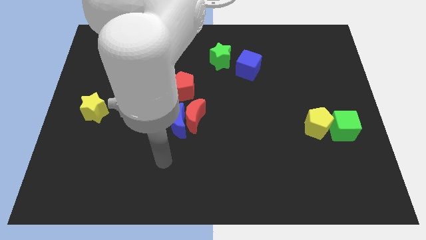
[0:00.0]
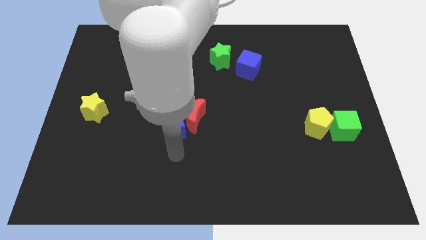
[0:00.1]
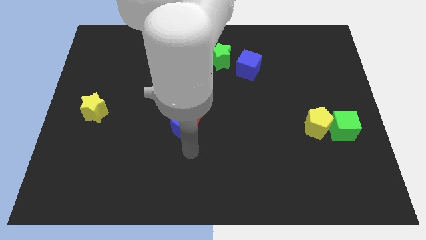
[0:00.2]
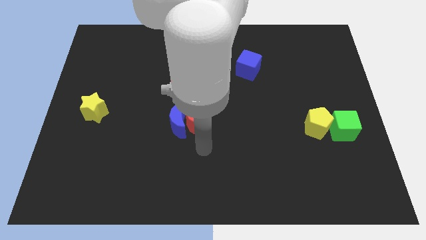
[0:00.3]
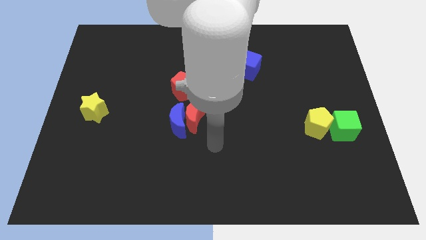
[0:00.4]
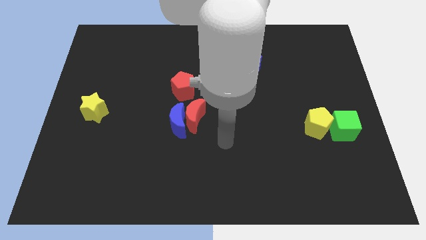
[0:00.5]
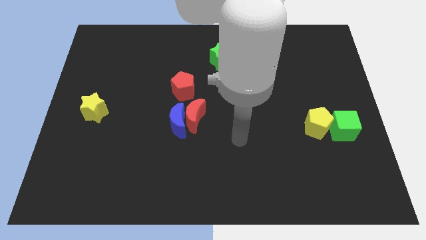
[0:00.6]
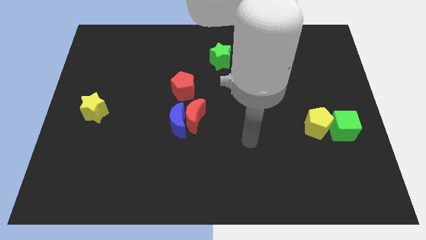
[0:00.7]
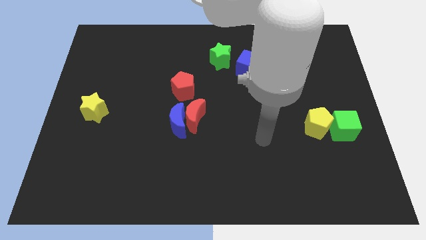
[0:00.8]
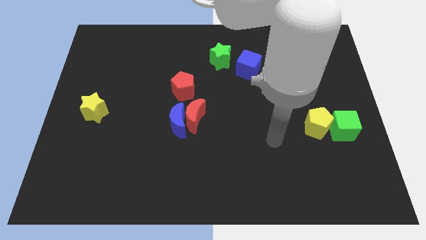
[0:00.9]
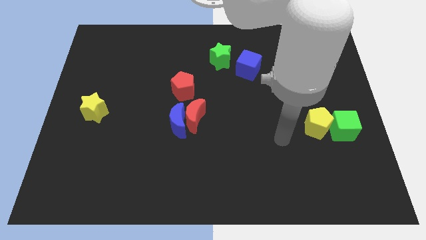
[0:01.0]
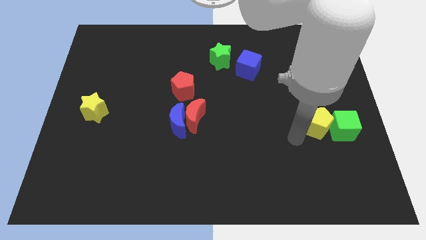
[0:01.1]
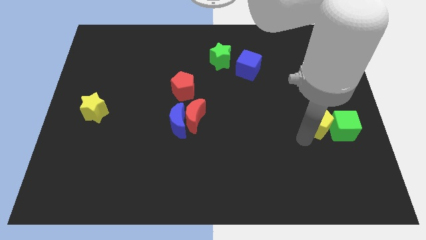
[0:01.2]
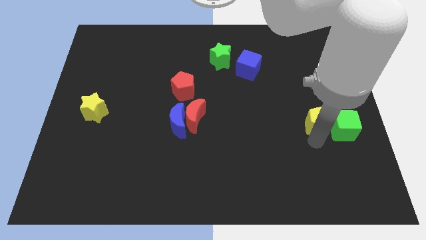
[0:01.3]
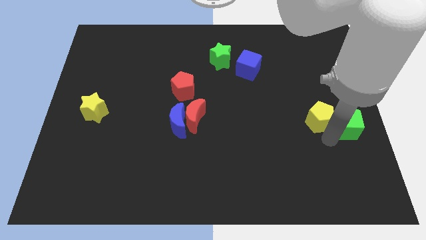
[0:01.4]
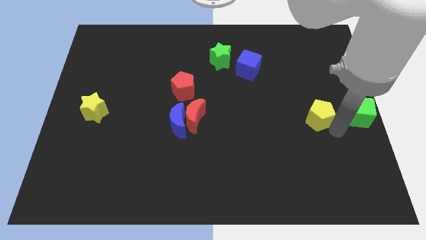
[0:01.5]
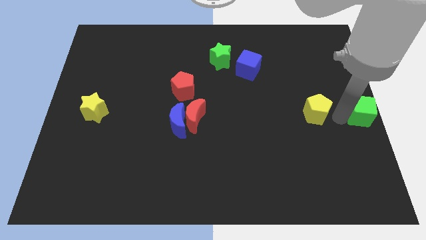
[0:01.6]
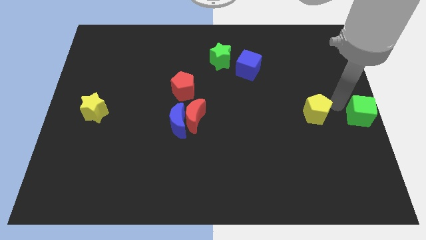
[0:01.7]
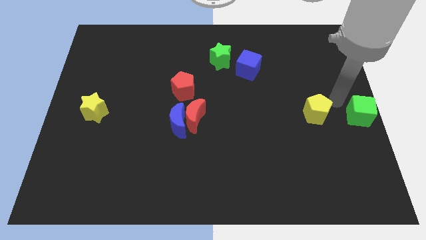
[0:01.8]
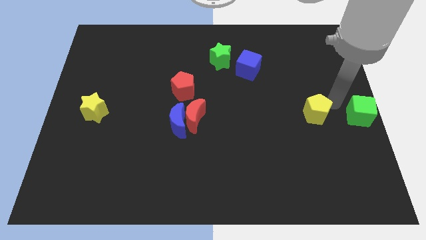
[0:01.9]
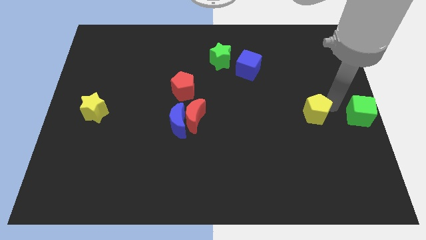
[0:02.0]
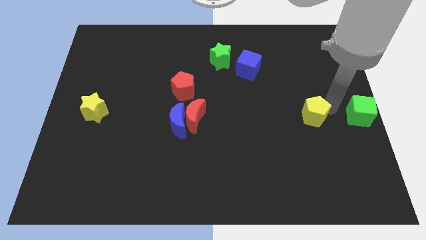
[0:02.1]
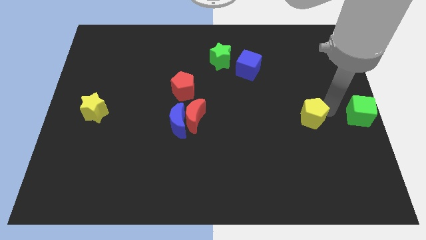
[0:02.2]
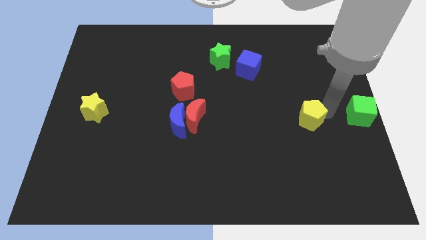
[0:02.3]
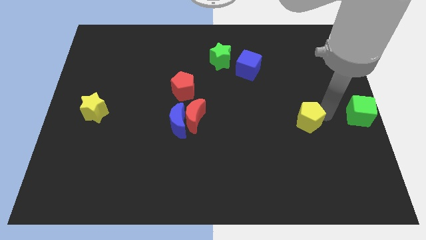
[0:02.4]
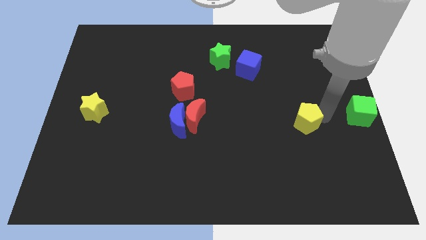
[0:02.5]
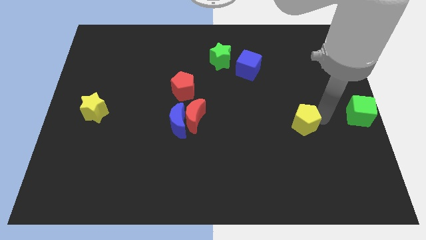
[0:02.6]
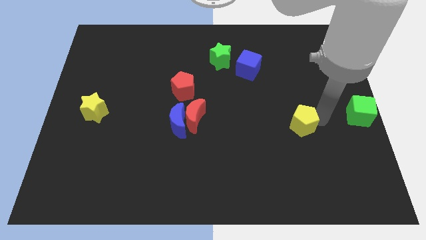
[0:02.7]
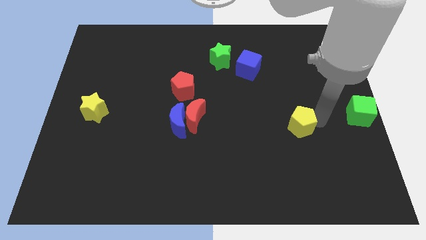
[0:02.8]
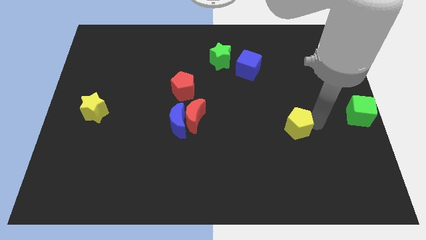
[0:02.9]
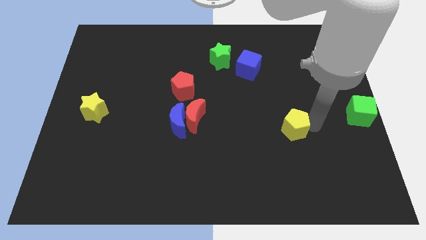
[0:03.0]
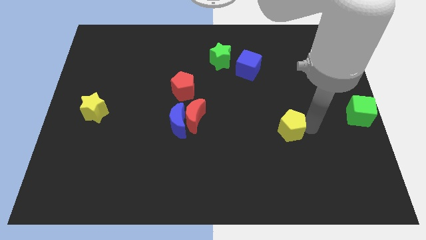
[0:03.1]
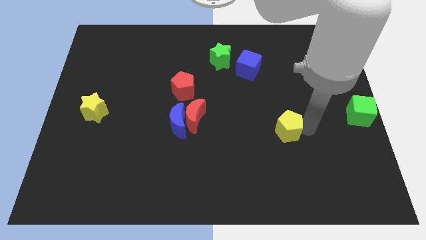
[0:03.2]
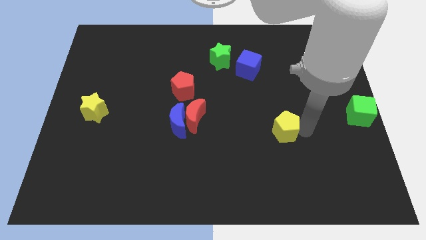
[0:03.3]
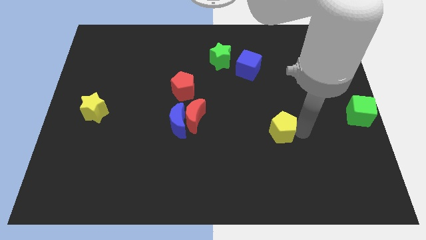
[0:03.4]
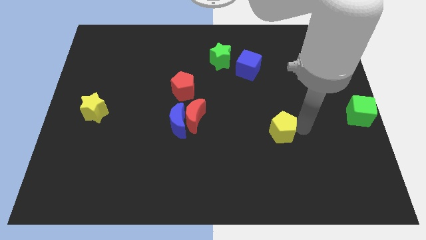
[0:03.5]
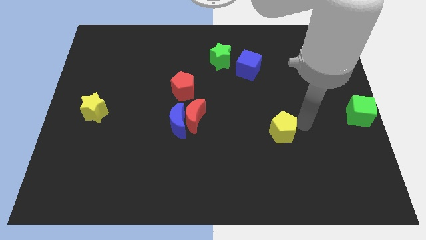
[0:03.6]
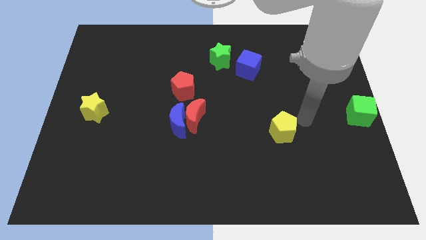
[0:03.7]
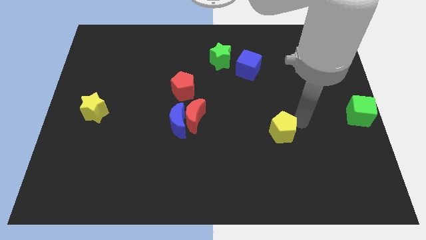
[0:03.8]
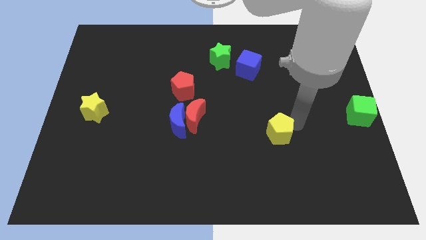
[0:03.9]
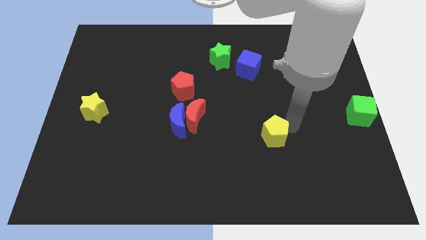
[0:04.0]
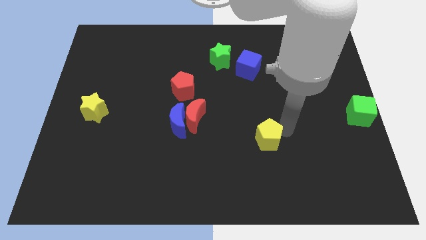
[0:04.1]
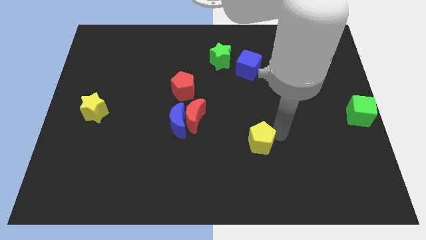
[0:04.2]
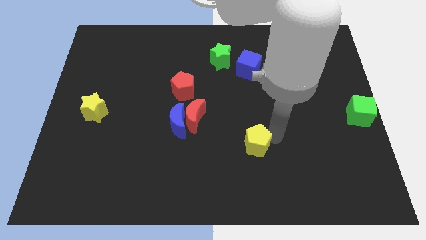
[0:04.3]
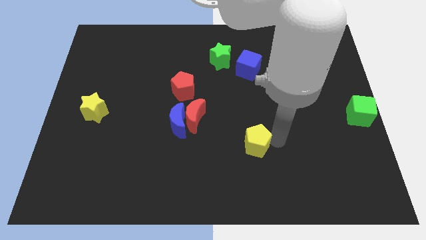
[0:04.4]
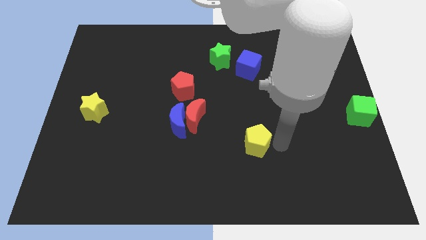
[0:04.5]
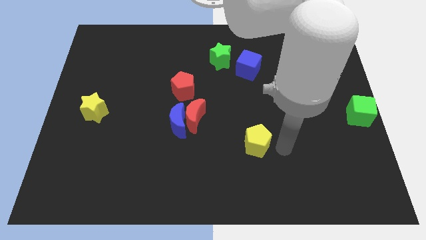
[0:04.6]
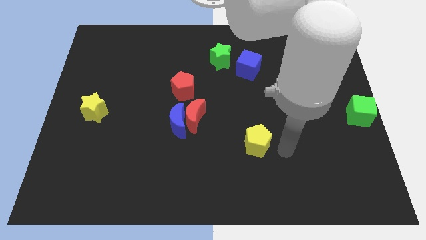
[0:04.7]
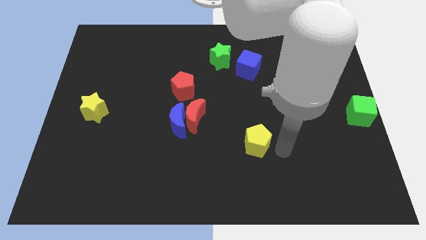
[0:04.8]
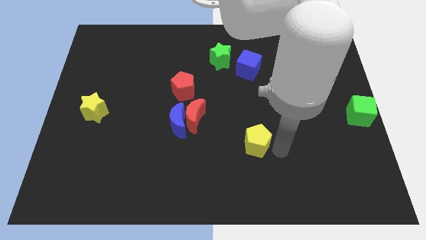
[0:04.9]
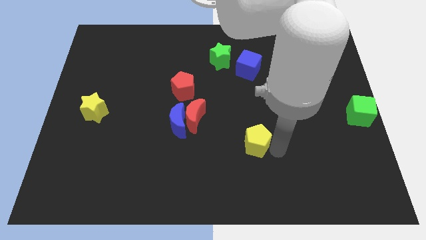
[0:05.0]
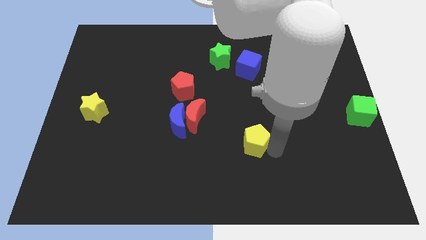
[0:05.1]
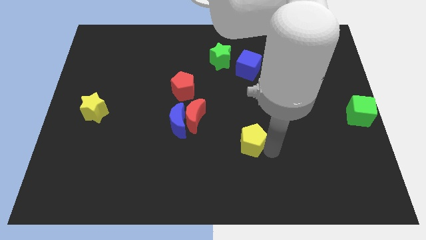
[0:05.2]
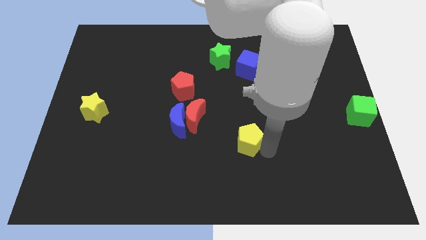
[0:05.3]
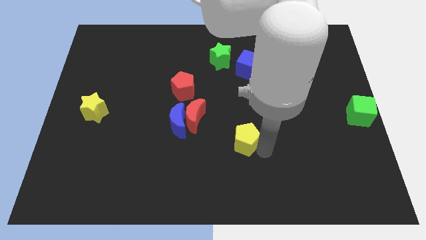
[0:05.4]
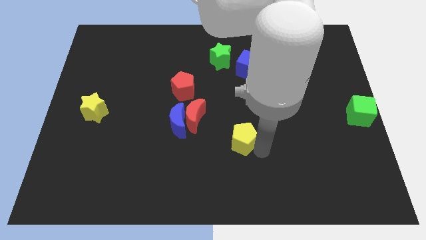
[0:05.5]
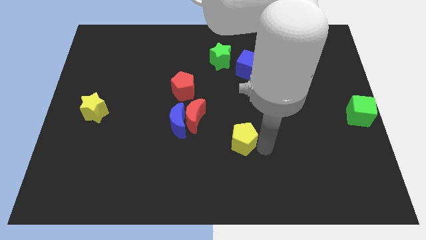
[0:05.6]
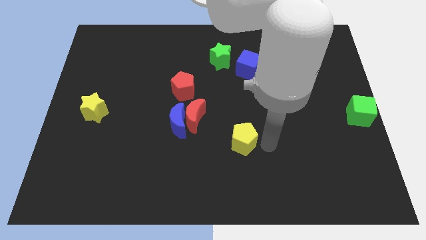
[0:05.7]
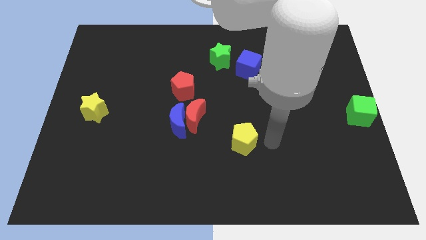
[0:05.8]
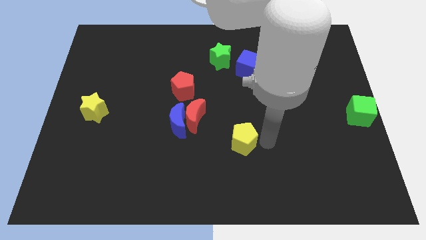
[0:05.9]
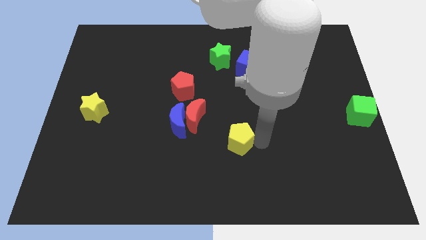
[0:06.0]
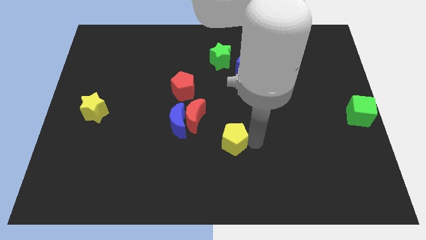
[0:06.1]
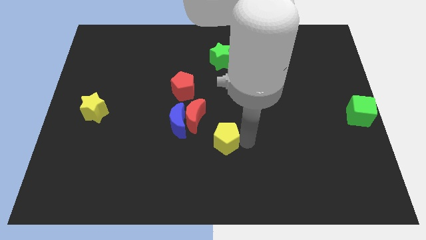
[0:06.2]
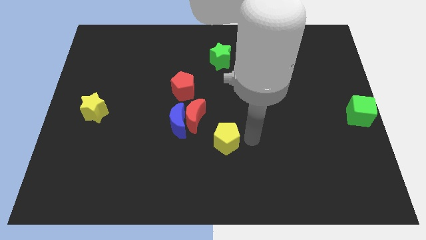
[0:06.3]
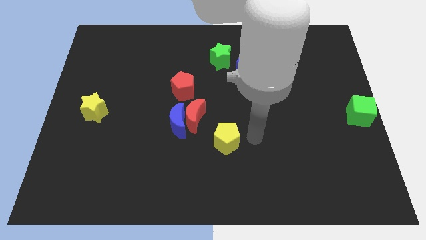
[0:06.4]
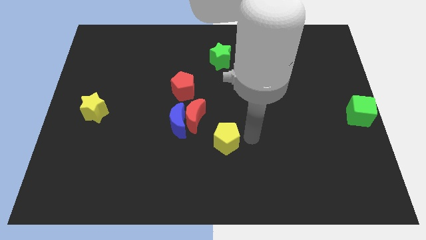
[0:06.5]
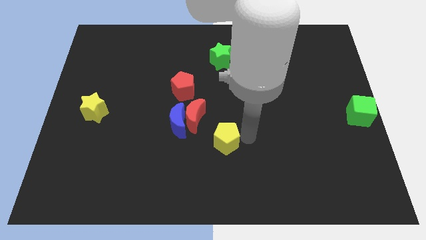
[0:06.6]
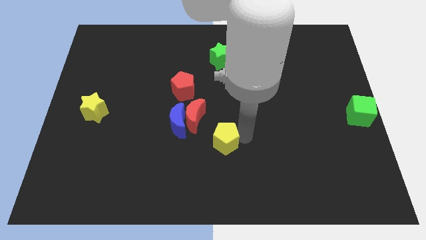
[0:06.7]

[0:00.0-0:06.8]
put the yellow pentagon diagonally down and to the right of the blue moon
